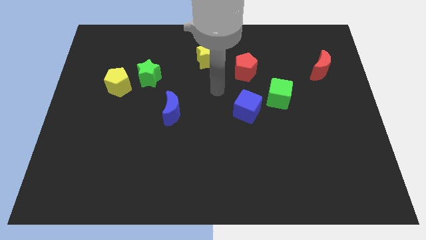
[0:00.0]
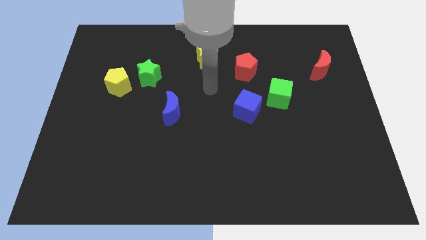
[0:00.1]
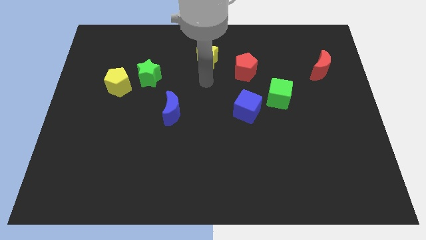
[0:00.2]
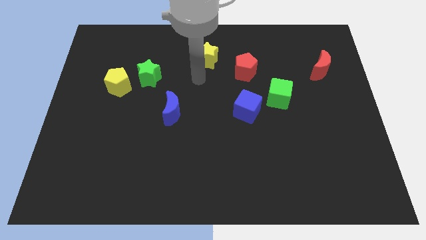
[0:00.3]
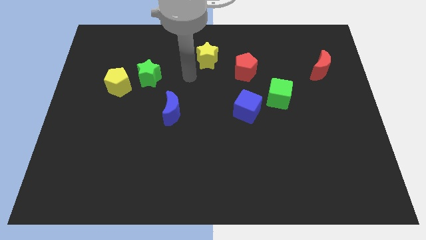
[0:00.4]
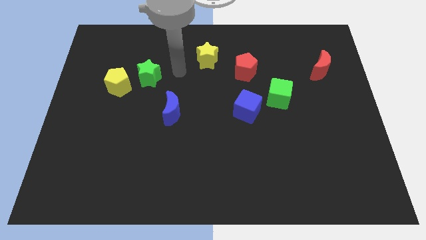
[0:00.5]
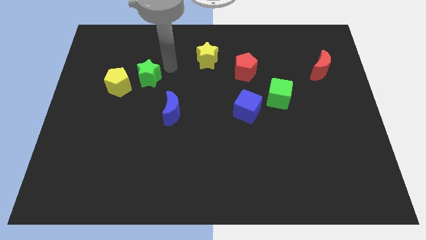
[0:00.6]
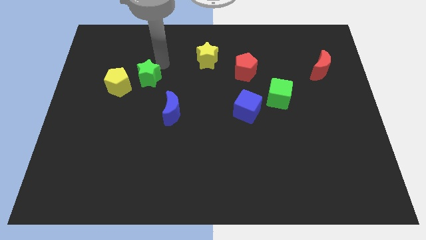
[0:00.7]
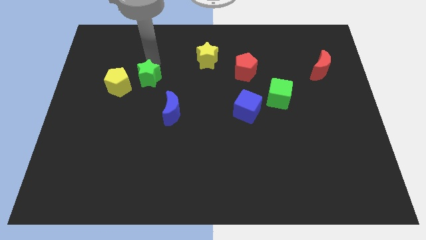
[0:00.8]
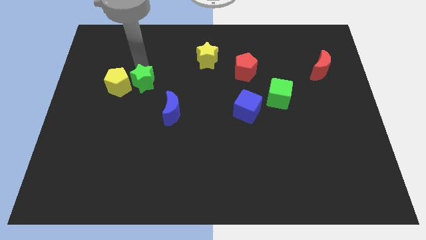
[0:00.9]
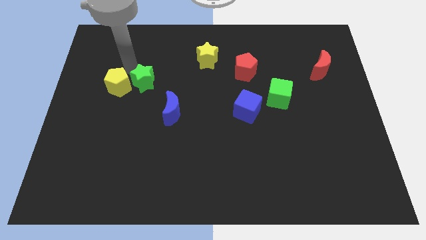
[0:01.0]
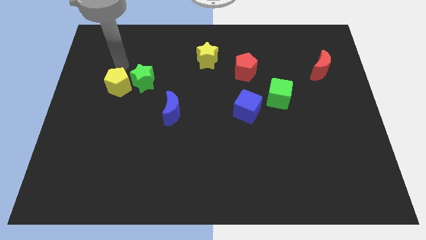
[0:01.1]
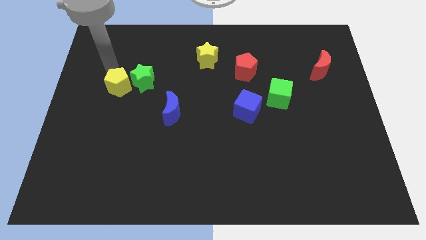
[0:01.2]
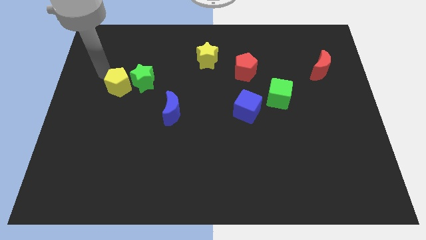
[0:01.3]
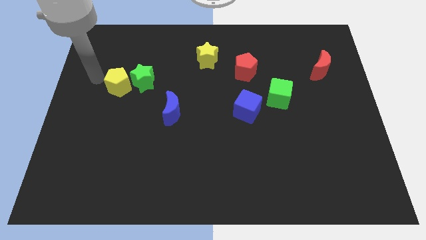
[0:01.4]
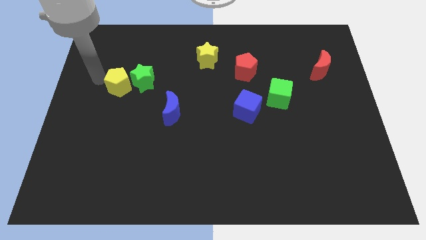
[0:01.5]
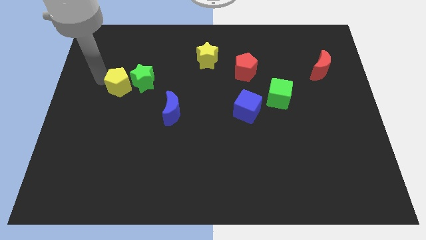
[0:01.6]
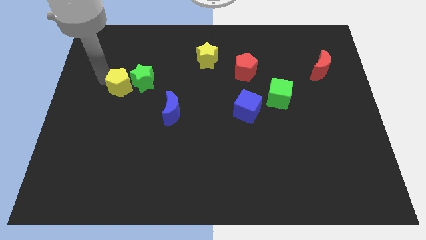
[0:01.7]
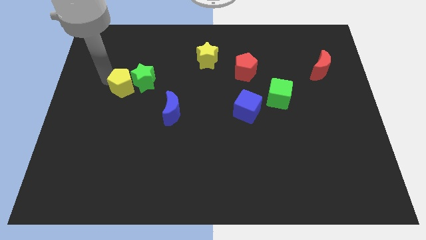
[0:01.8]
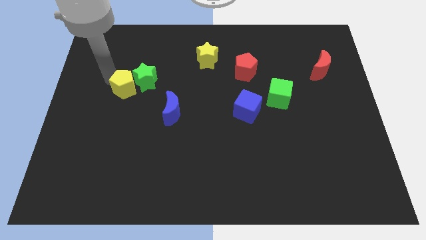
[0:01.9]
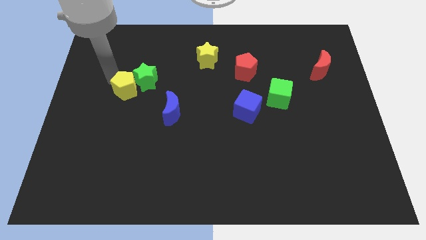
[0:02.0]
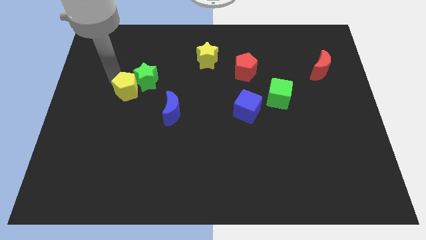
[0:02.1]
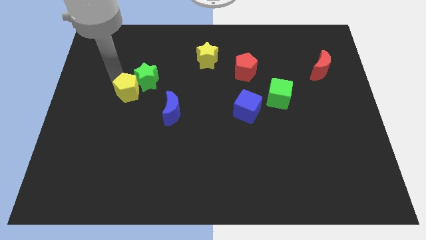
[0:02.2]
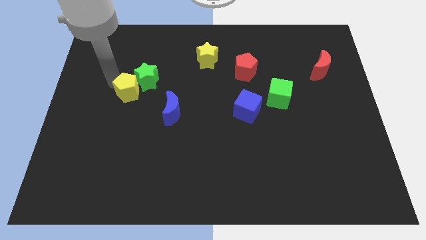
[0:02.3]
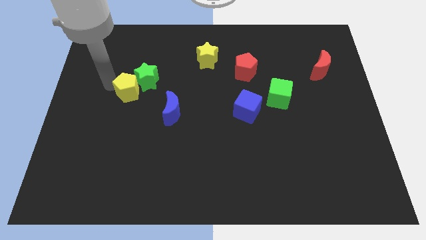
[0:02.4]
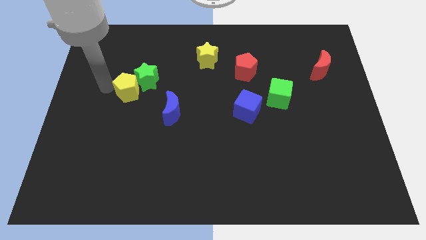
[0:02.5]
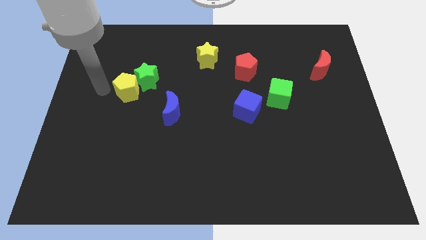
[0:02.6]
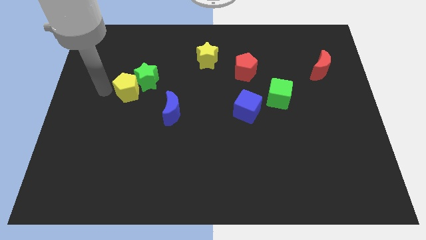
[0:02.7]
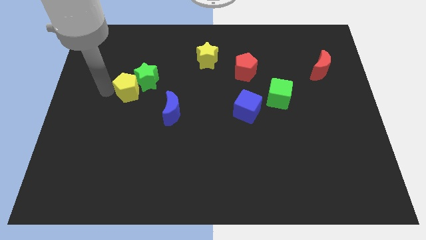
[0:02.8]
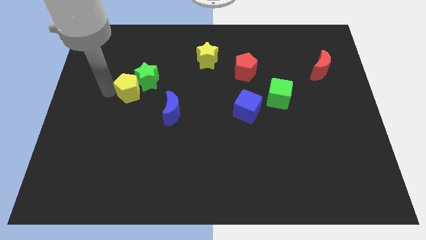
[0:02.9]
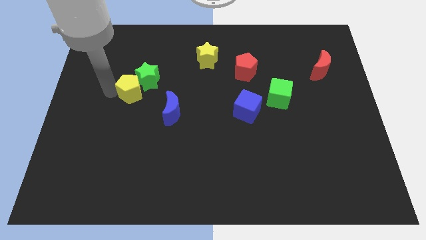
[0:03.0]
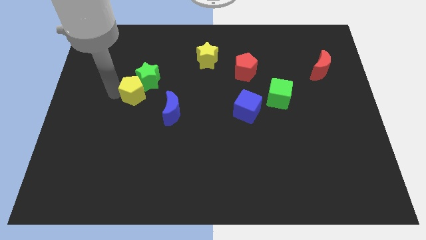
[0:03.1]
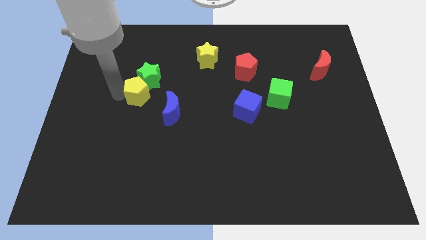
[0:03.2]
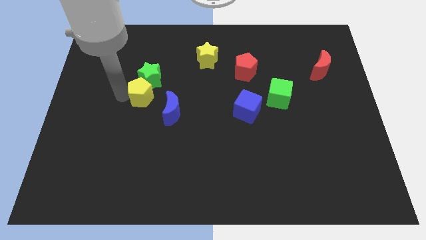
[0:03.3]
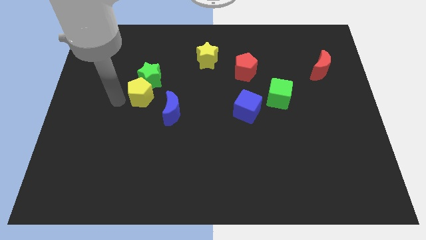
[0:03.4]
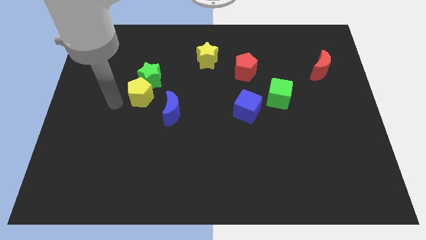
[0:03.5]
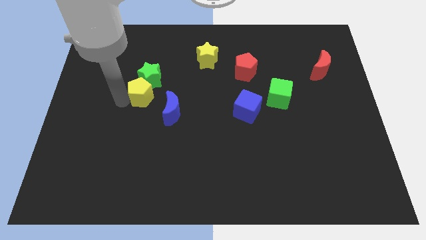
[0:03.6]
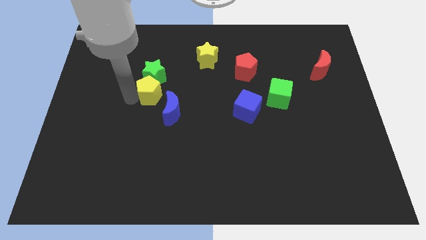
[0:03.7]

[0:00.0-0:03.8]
slightly push the yellow pentagon right

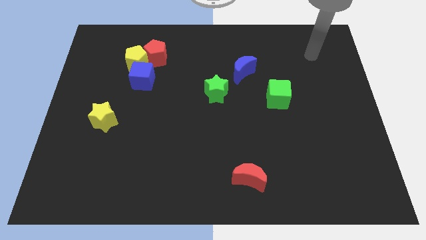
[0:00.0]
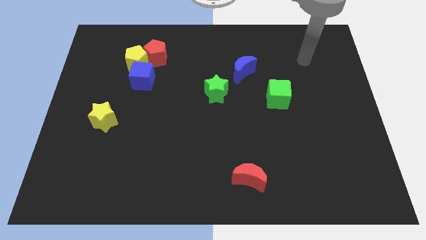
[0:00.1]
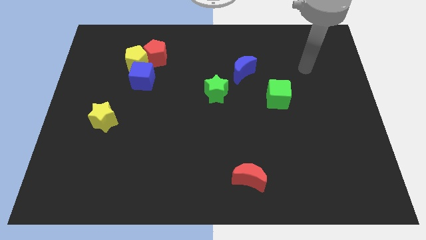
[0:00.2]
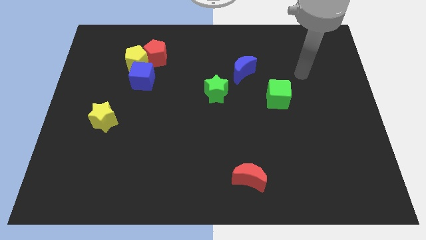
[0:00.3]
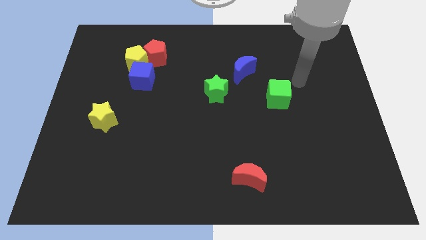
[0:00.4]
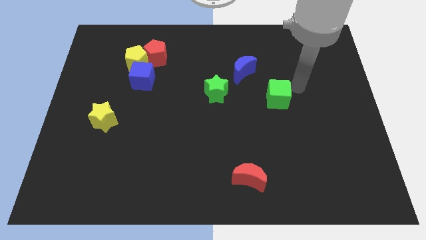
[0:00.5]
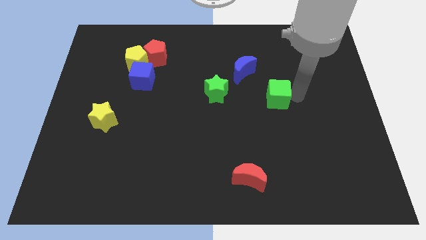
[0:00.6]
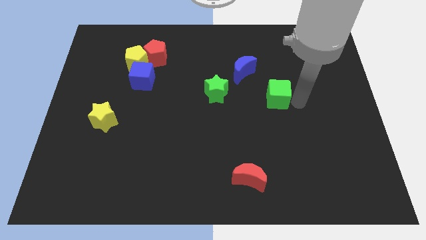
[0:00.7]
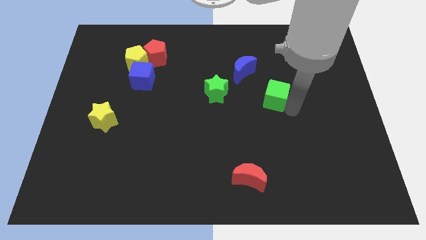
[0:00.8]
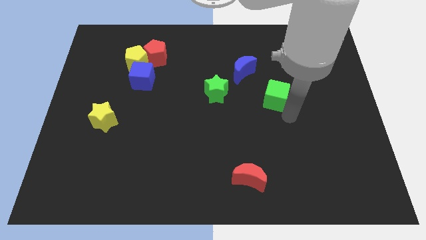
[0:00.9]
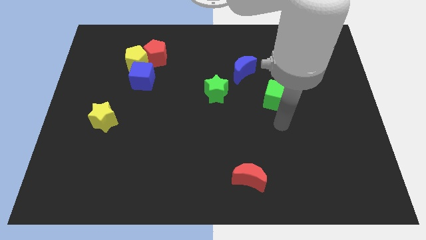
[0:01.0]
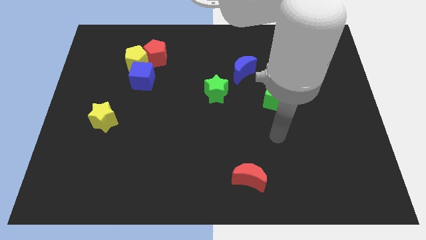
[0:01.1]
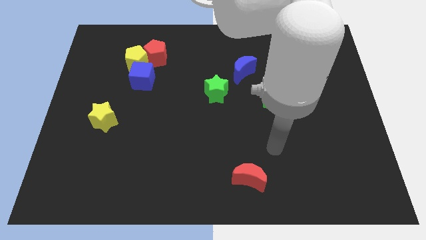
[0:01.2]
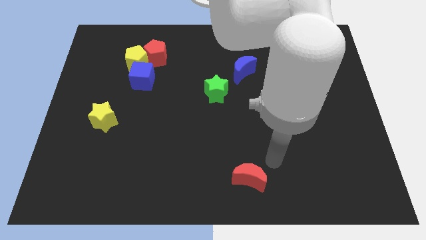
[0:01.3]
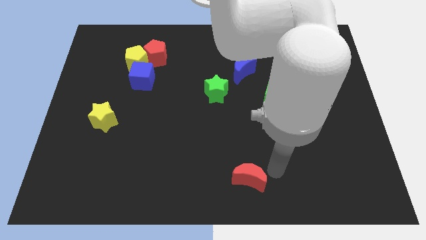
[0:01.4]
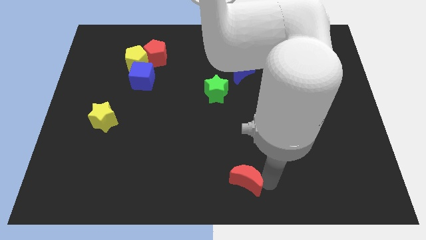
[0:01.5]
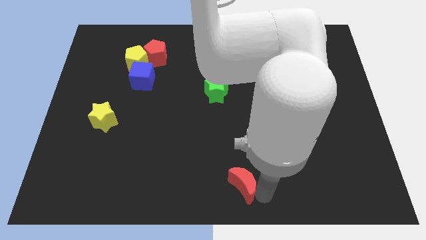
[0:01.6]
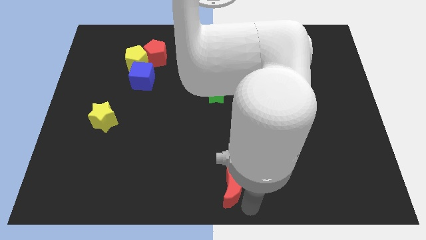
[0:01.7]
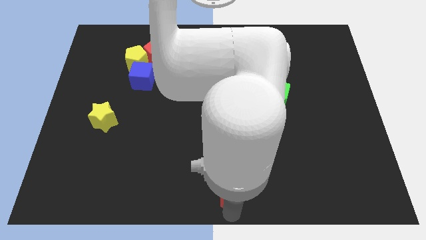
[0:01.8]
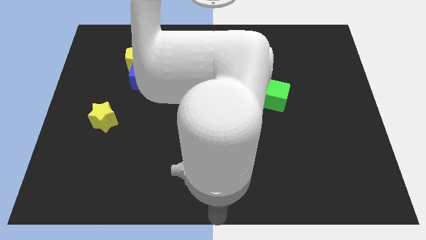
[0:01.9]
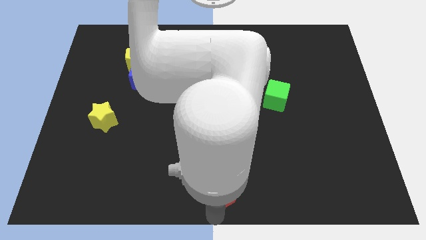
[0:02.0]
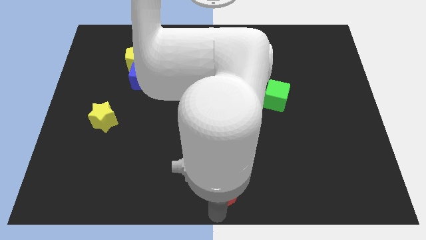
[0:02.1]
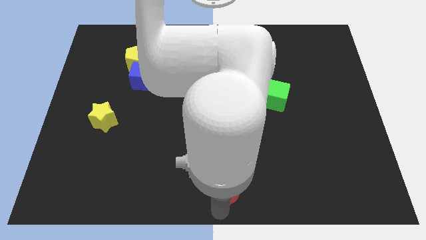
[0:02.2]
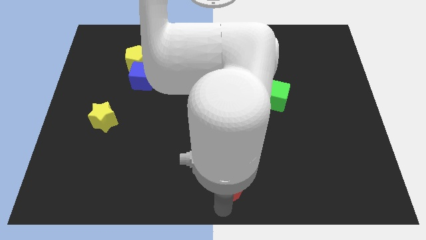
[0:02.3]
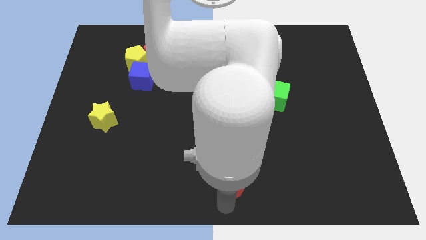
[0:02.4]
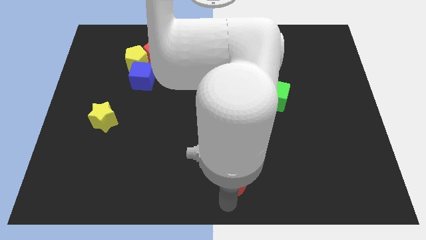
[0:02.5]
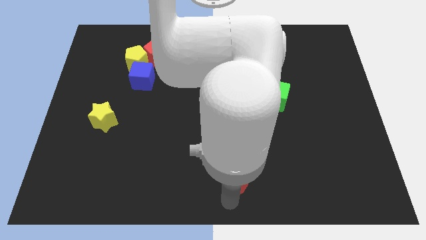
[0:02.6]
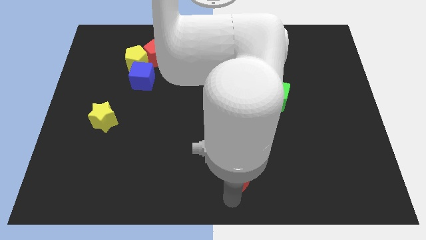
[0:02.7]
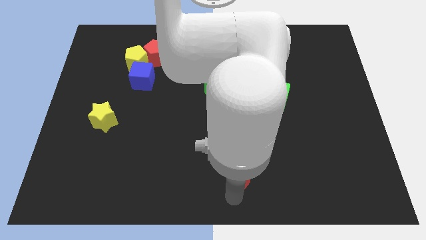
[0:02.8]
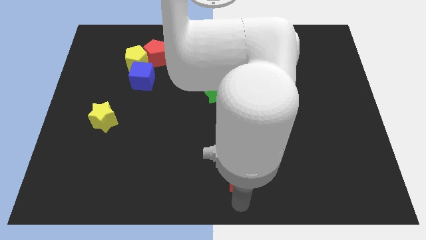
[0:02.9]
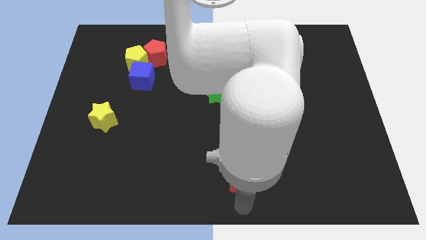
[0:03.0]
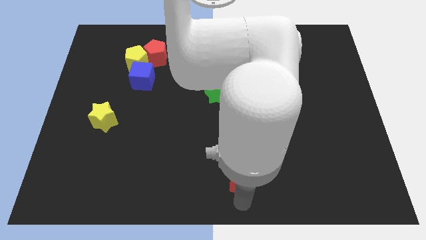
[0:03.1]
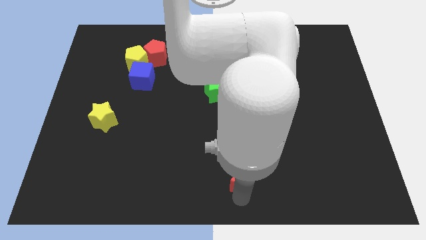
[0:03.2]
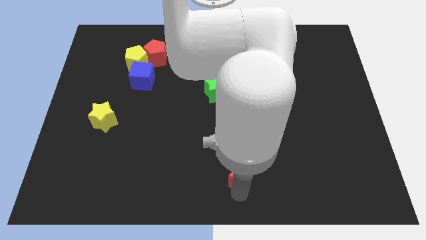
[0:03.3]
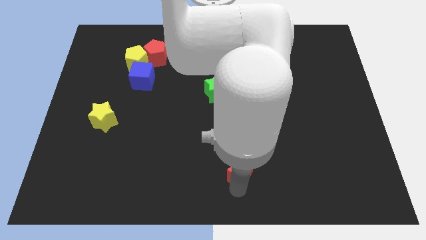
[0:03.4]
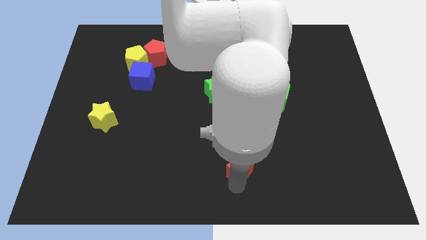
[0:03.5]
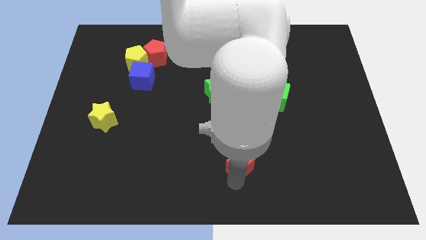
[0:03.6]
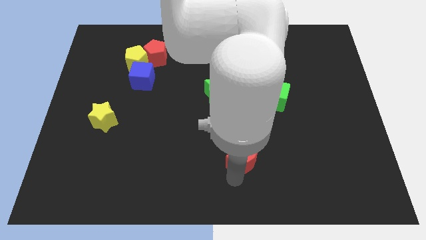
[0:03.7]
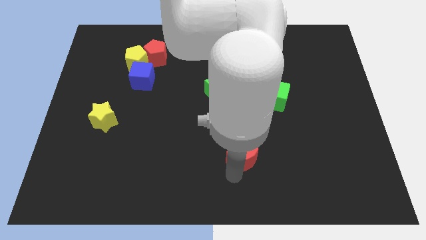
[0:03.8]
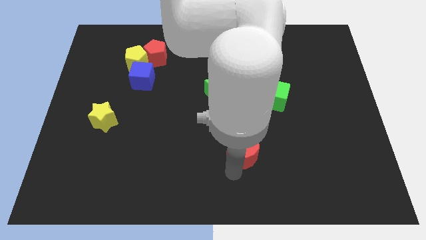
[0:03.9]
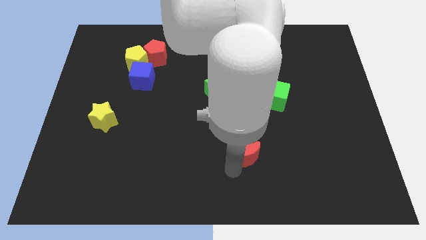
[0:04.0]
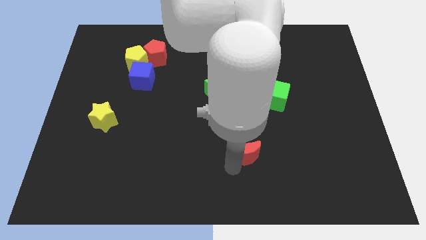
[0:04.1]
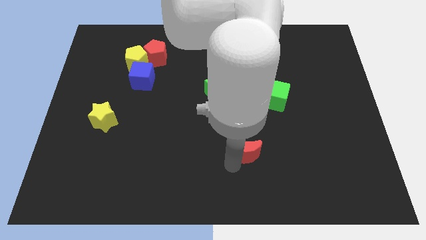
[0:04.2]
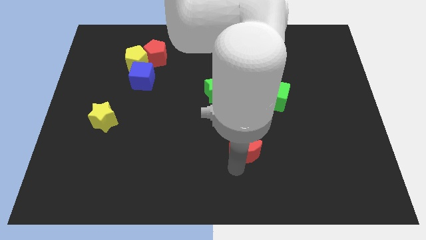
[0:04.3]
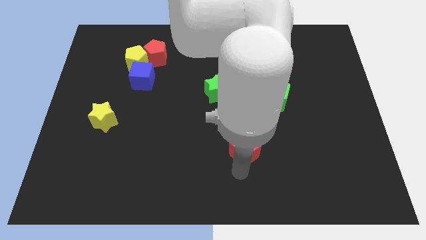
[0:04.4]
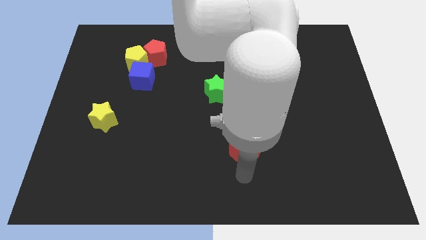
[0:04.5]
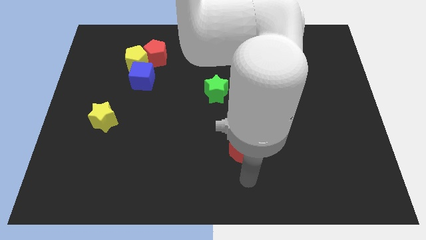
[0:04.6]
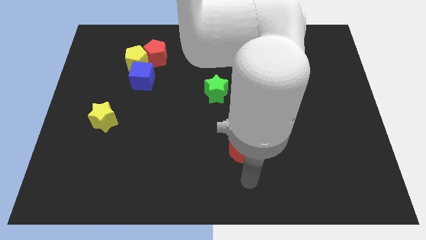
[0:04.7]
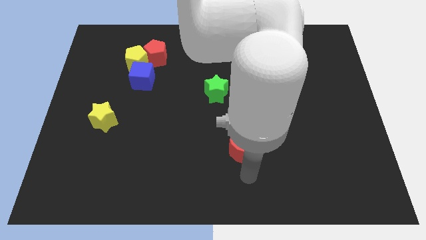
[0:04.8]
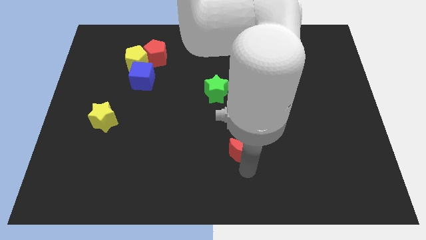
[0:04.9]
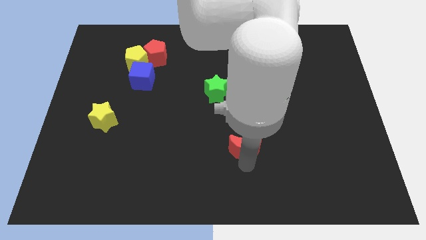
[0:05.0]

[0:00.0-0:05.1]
slide the red moon up somewhat
